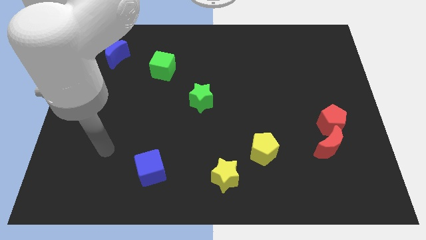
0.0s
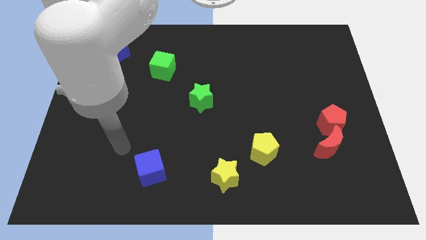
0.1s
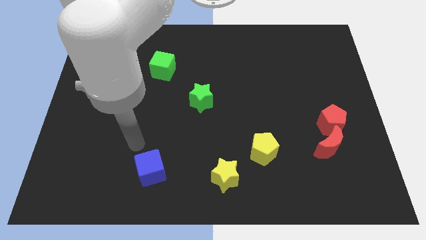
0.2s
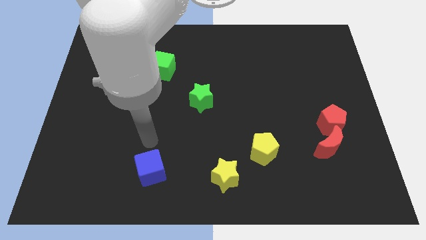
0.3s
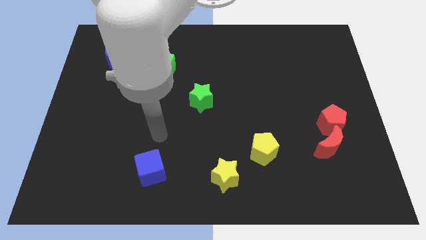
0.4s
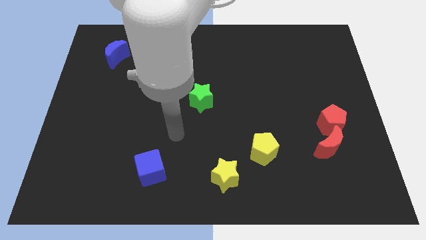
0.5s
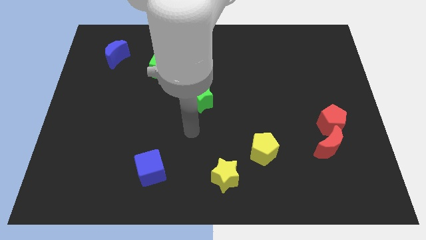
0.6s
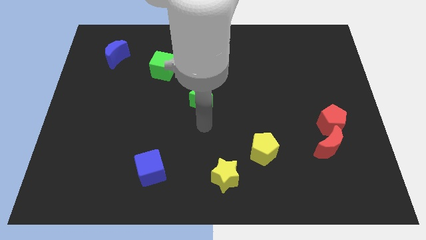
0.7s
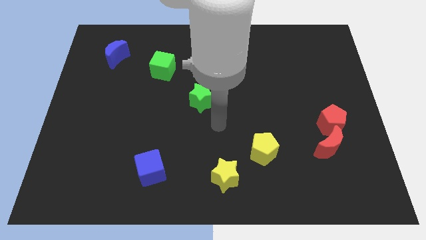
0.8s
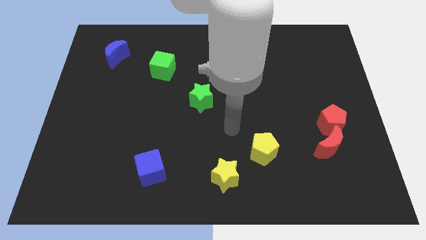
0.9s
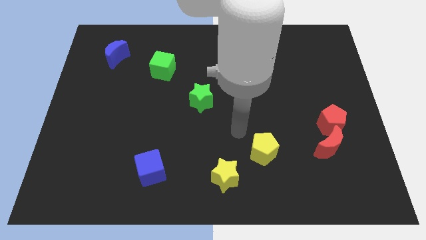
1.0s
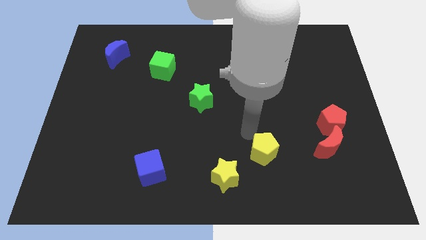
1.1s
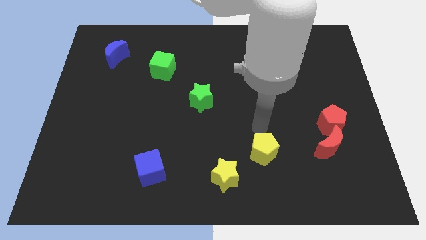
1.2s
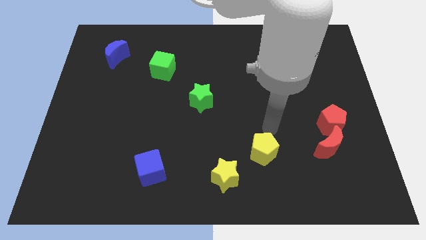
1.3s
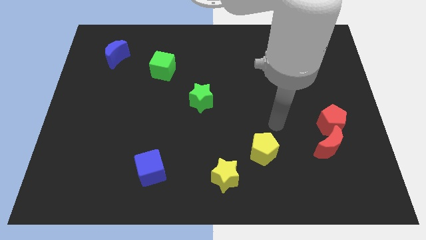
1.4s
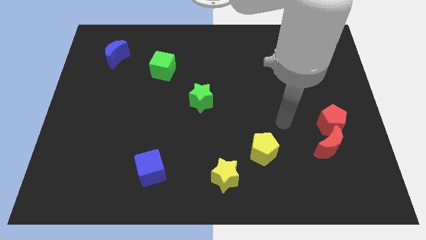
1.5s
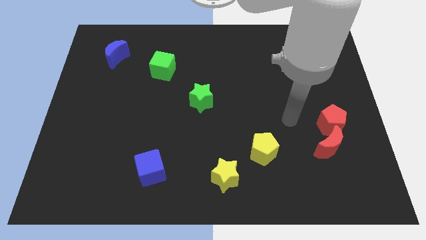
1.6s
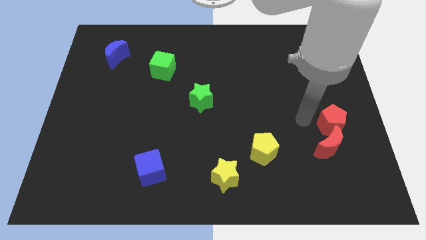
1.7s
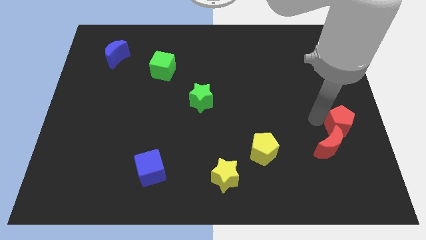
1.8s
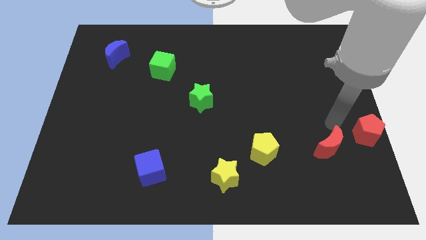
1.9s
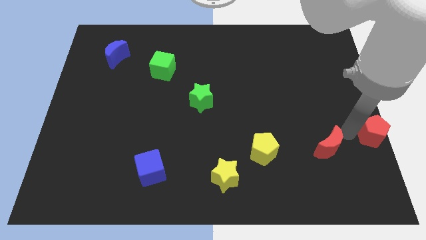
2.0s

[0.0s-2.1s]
pull the red moon apart from the red pentagon

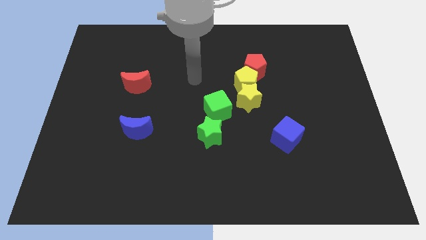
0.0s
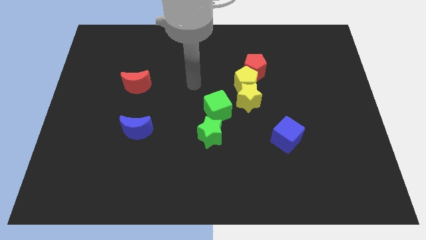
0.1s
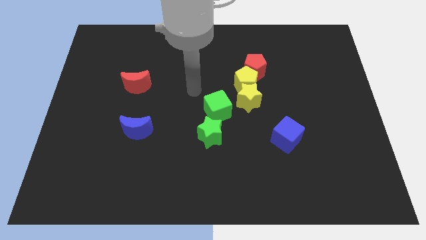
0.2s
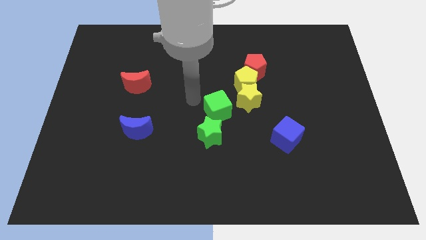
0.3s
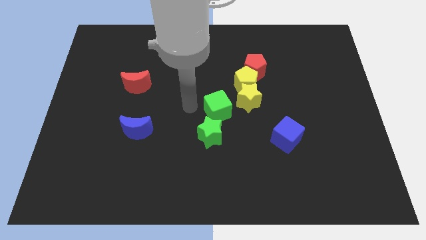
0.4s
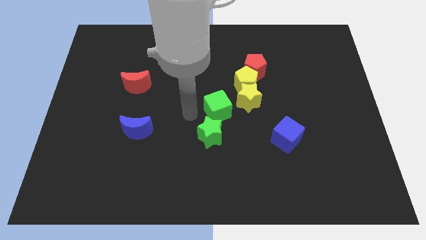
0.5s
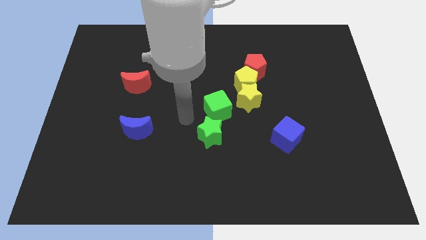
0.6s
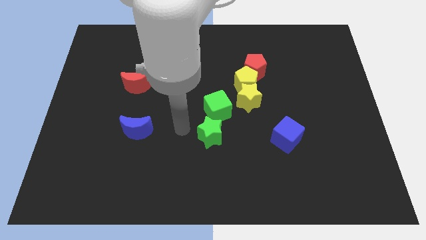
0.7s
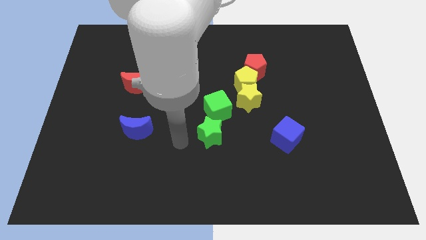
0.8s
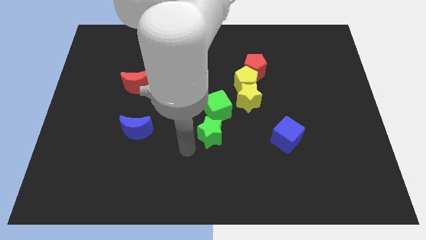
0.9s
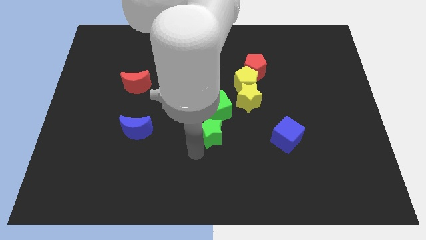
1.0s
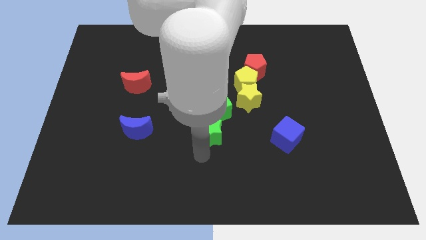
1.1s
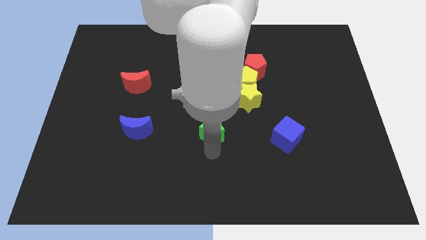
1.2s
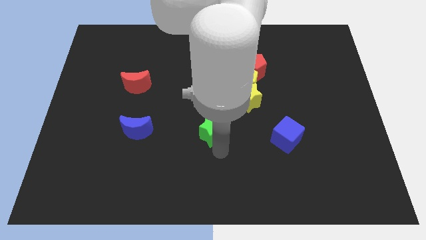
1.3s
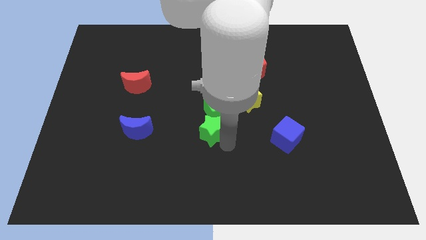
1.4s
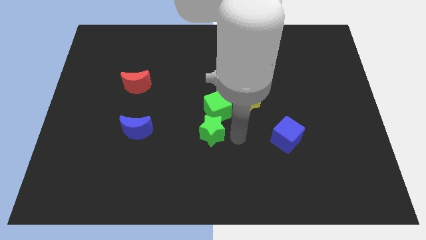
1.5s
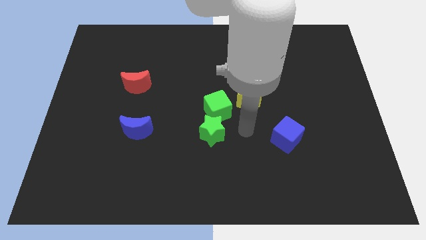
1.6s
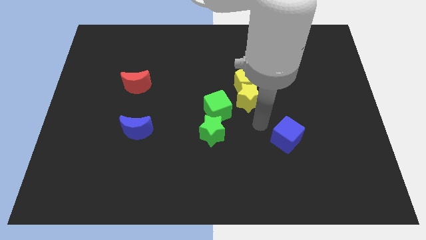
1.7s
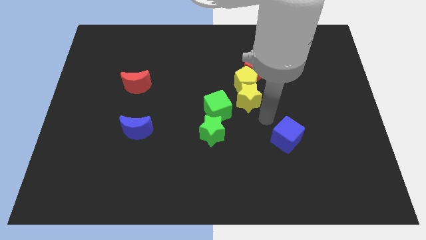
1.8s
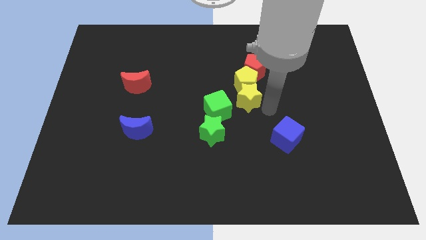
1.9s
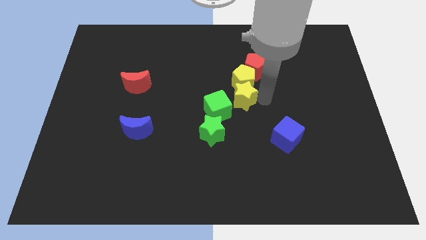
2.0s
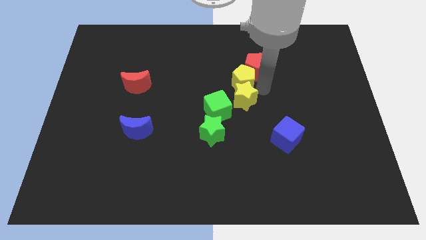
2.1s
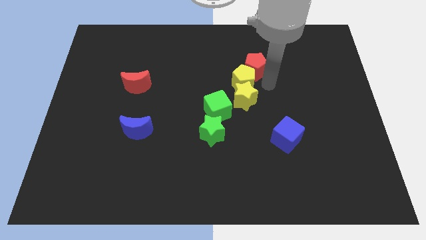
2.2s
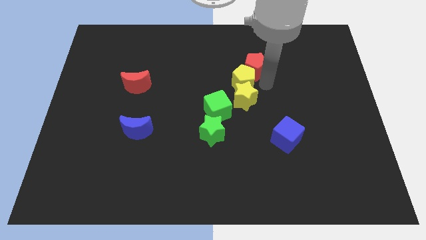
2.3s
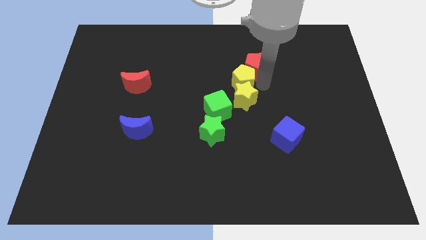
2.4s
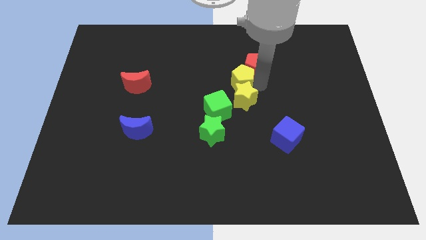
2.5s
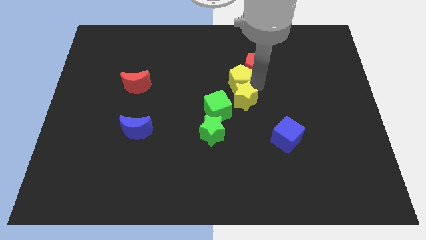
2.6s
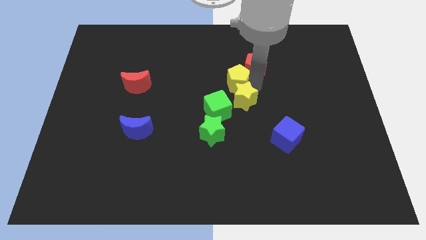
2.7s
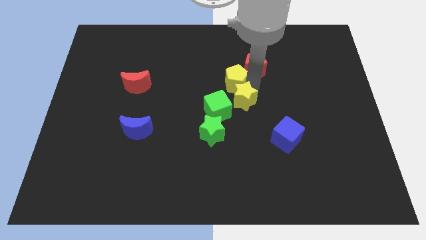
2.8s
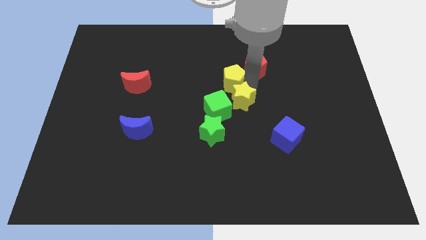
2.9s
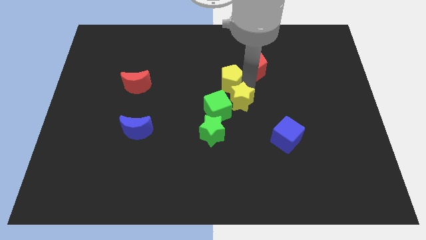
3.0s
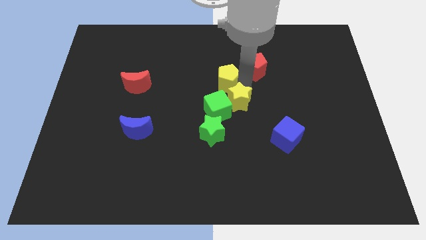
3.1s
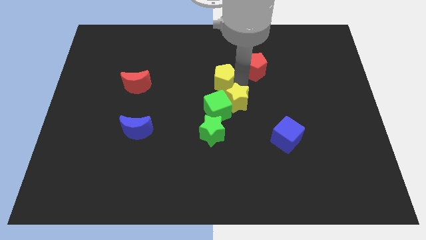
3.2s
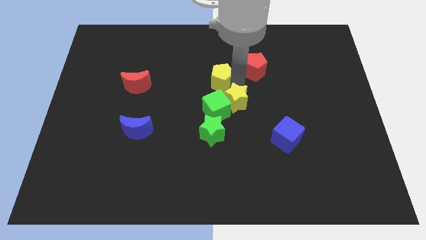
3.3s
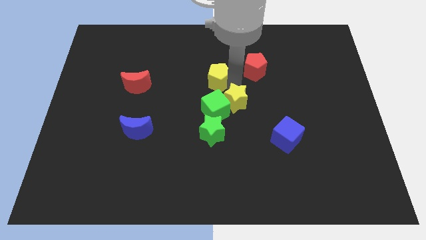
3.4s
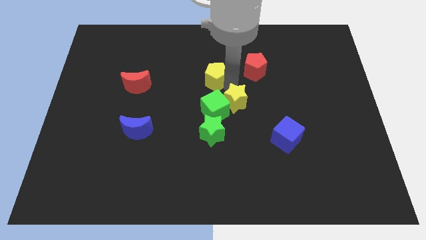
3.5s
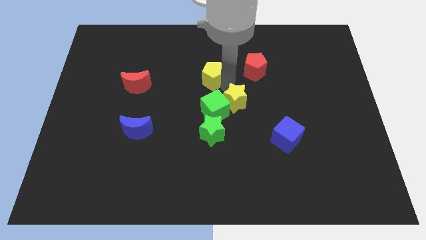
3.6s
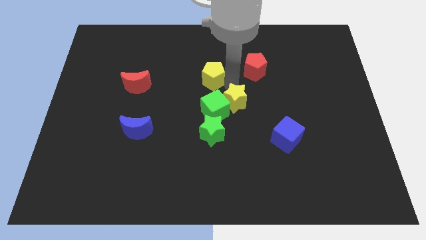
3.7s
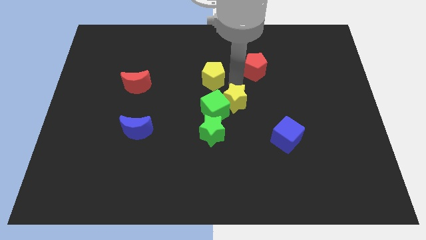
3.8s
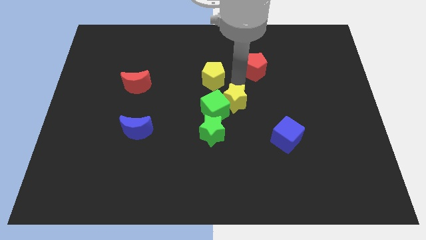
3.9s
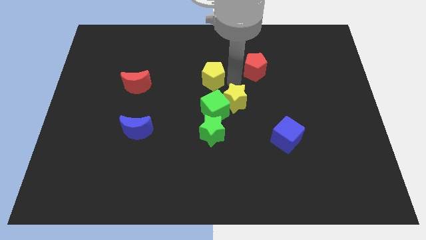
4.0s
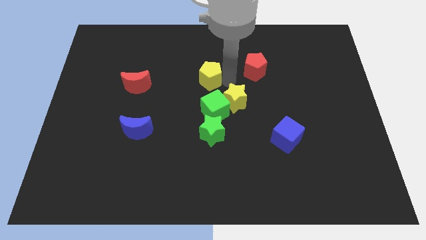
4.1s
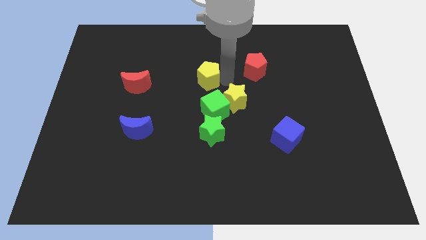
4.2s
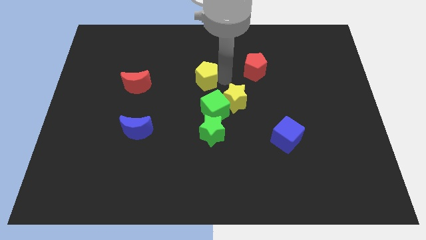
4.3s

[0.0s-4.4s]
pull the yellow pentagon apart from the yellow star and red pentagon

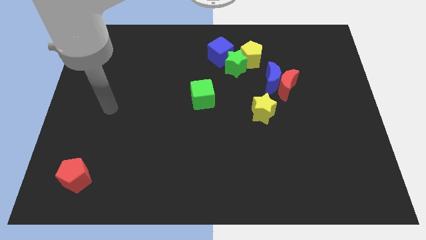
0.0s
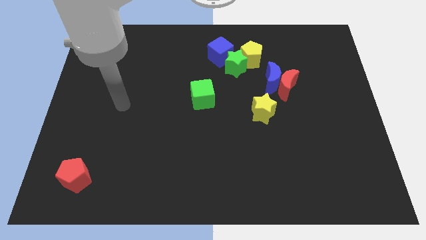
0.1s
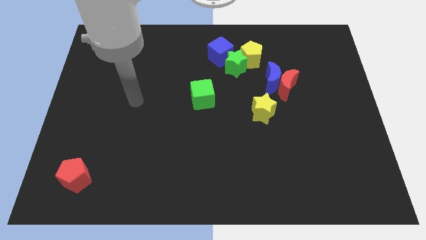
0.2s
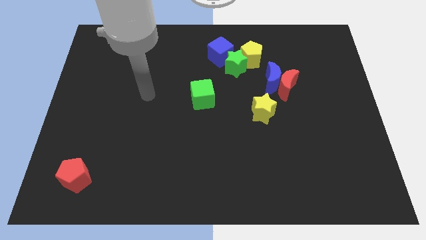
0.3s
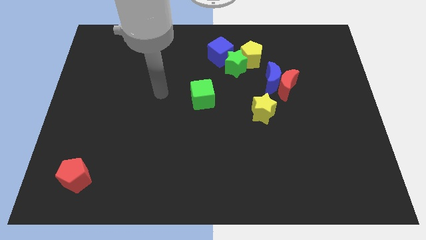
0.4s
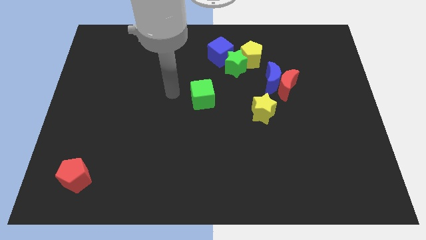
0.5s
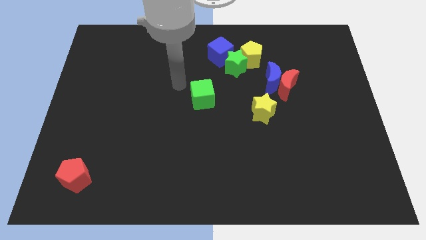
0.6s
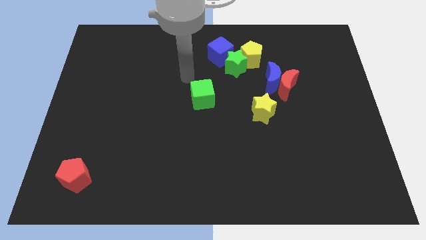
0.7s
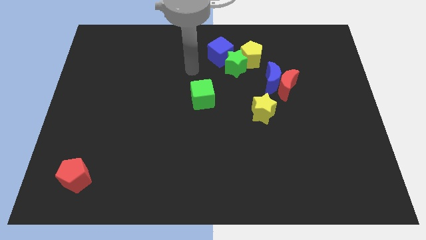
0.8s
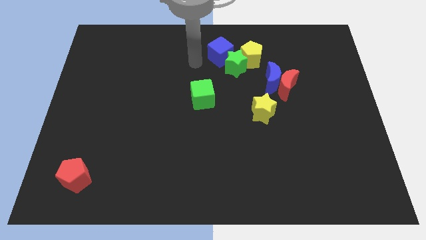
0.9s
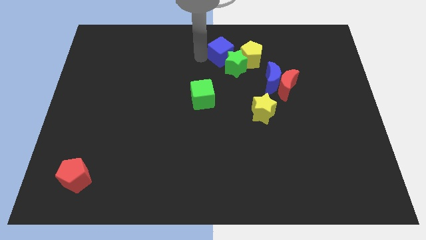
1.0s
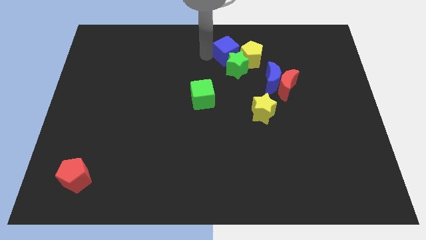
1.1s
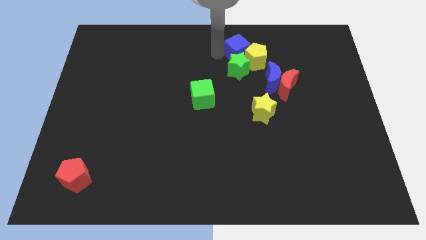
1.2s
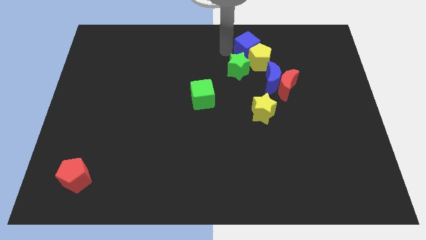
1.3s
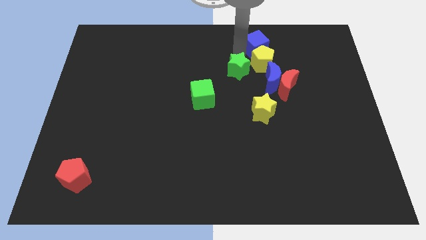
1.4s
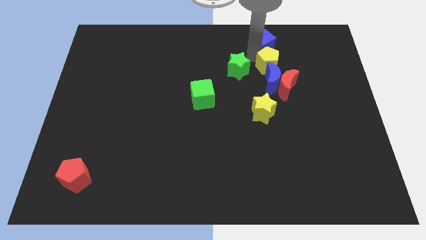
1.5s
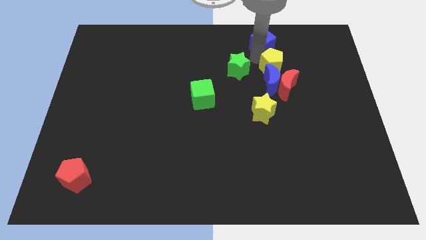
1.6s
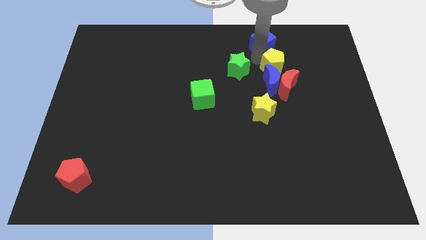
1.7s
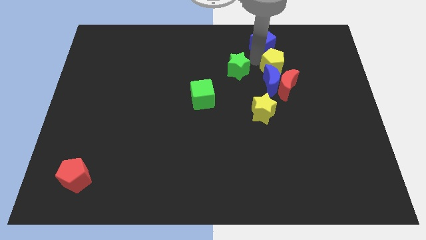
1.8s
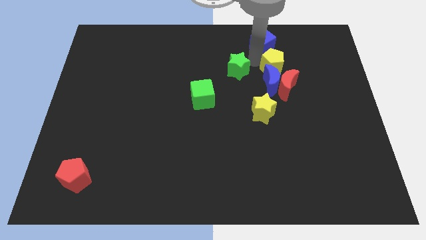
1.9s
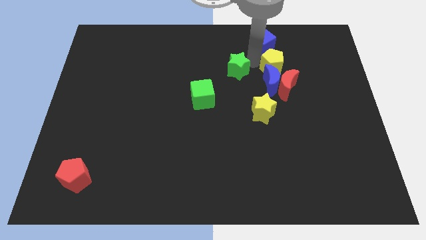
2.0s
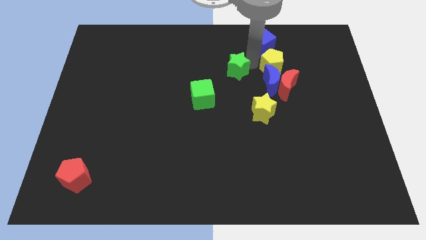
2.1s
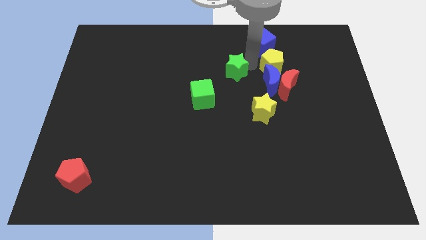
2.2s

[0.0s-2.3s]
separate the green star from the yellow pentagon and blue cube

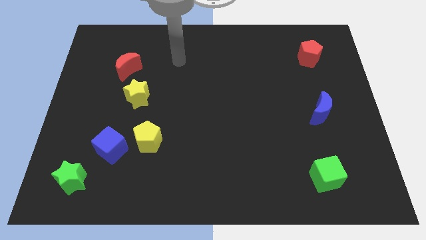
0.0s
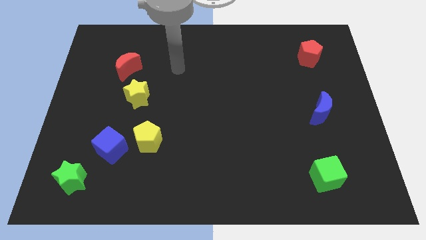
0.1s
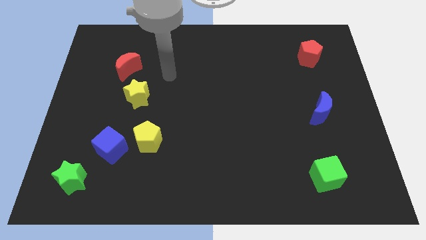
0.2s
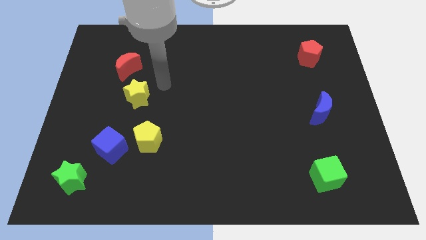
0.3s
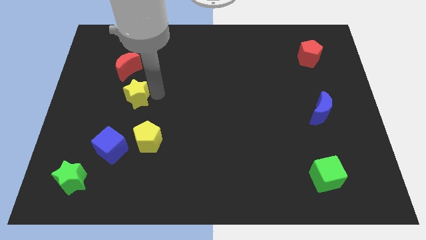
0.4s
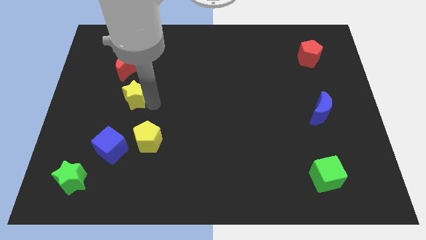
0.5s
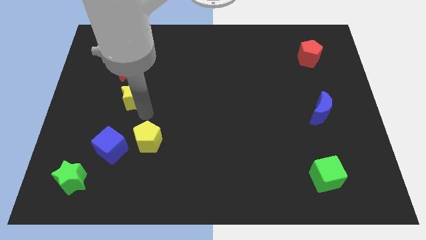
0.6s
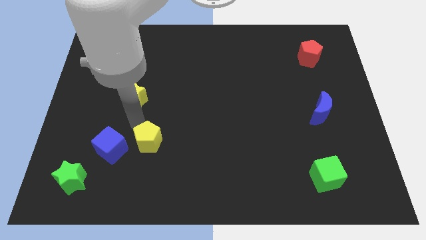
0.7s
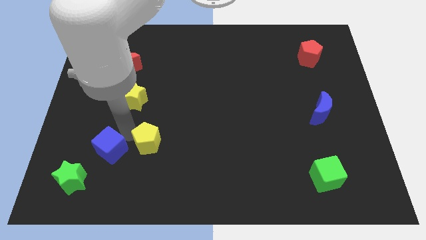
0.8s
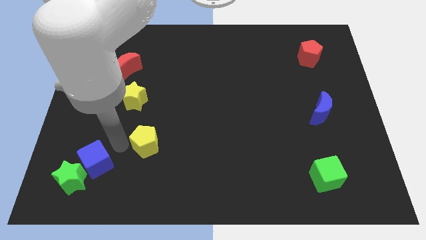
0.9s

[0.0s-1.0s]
pull the yellow pentagon apart from the blue cube
